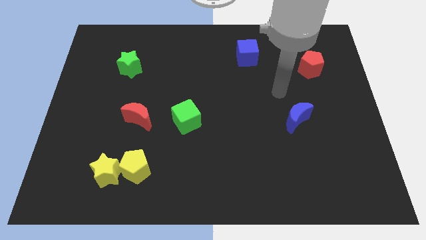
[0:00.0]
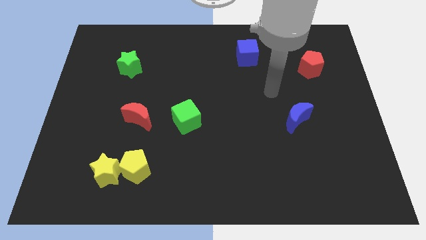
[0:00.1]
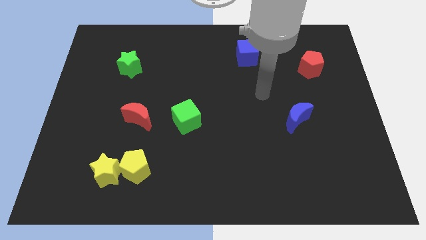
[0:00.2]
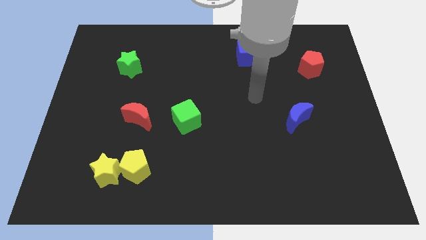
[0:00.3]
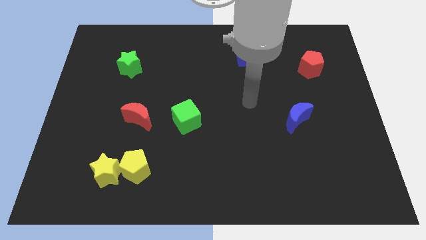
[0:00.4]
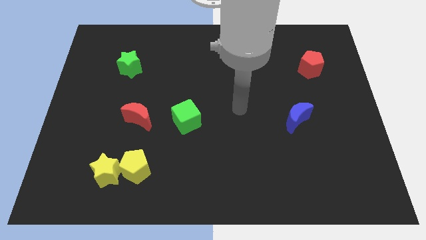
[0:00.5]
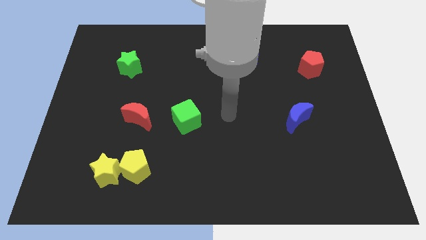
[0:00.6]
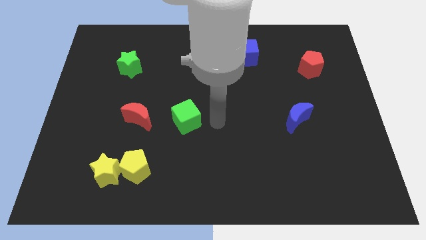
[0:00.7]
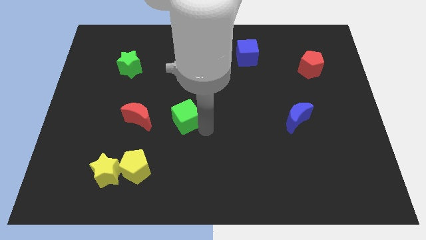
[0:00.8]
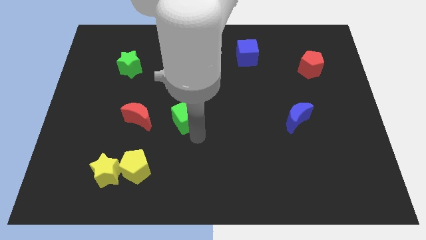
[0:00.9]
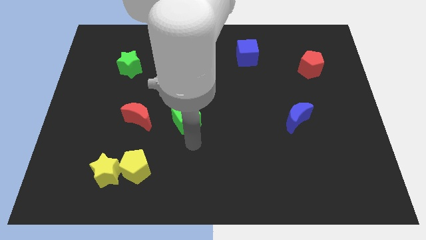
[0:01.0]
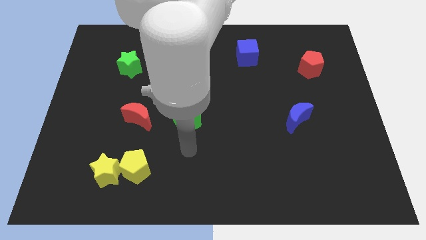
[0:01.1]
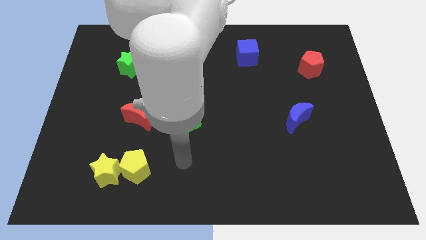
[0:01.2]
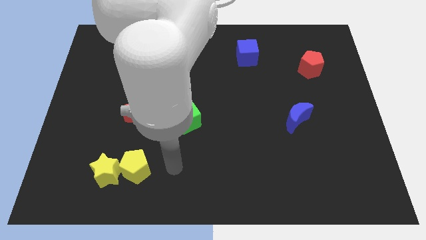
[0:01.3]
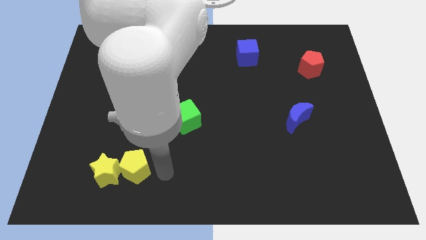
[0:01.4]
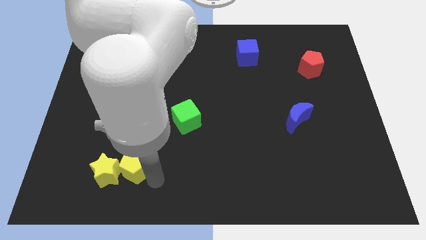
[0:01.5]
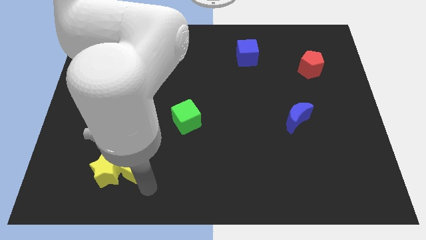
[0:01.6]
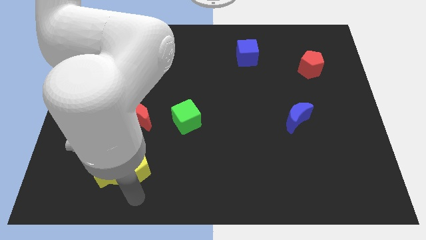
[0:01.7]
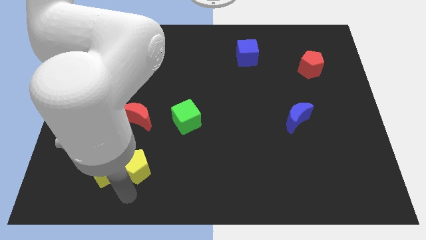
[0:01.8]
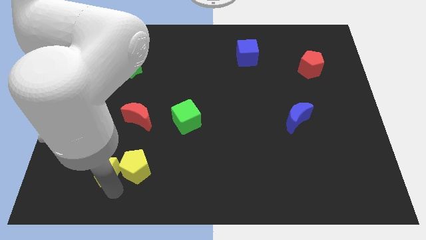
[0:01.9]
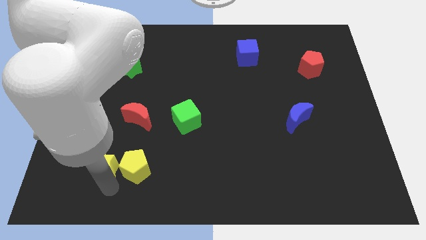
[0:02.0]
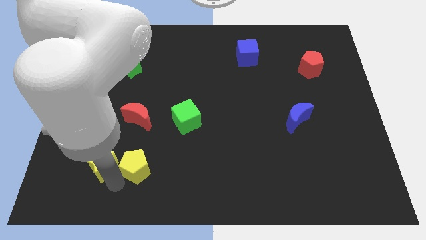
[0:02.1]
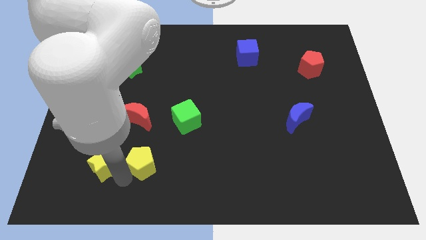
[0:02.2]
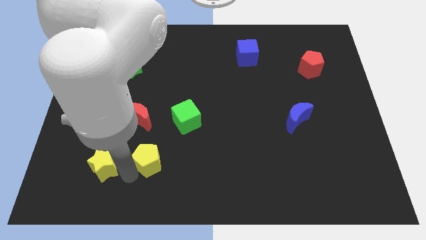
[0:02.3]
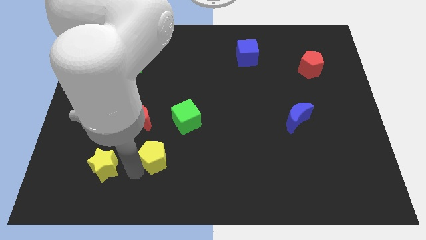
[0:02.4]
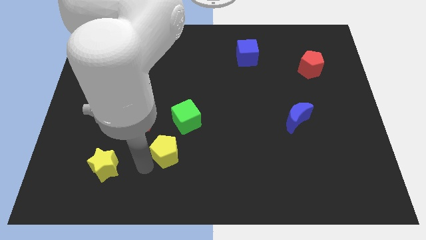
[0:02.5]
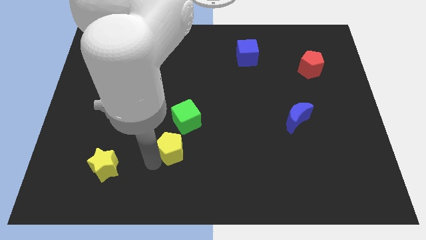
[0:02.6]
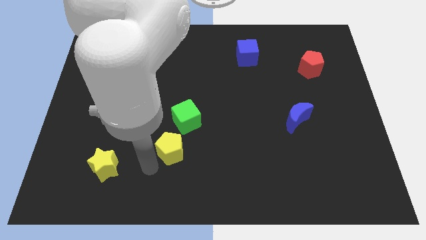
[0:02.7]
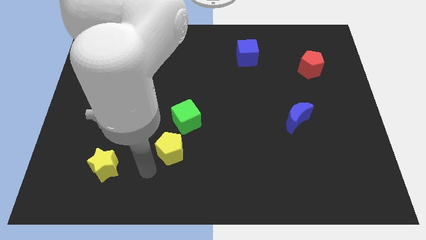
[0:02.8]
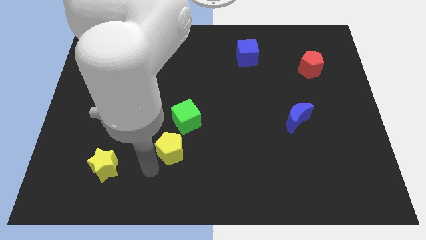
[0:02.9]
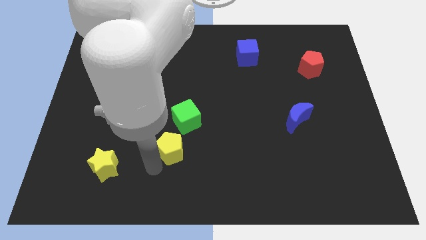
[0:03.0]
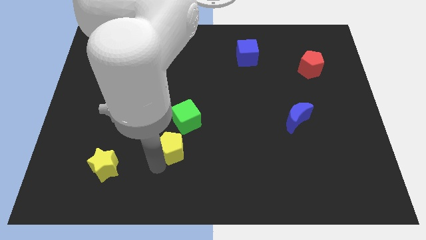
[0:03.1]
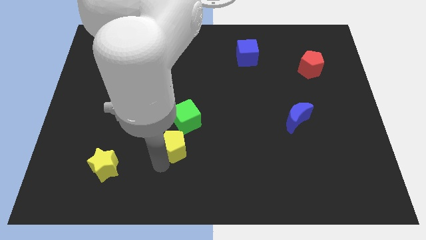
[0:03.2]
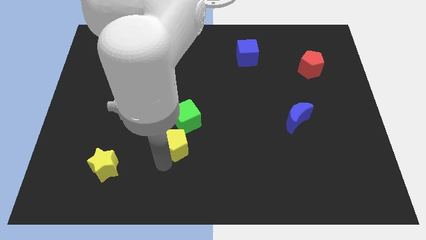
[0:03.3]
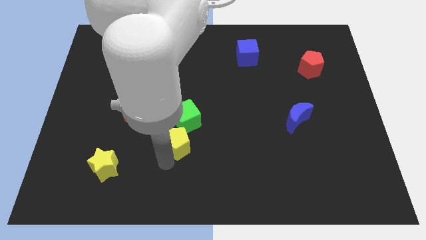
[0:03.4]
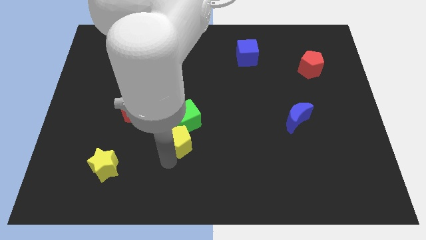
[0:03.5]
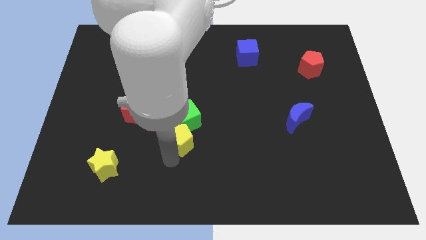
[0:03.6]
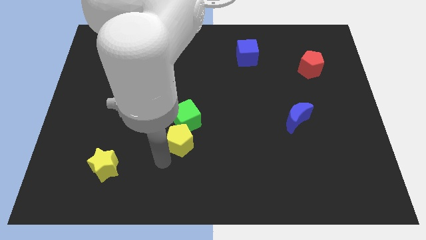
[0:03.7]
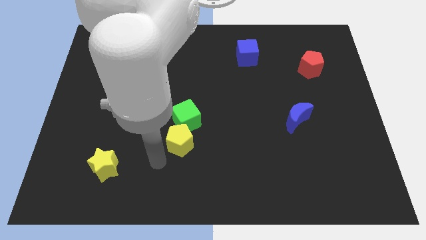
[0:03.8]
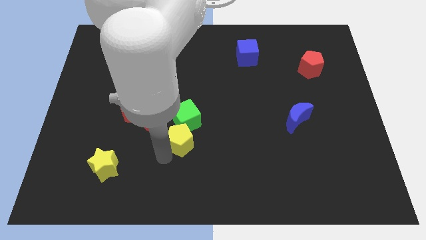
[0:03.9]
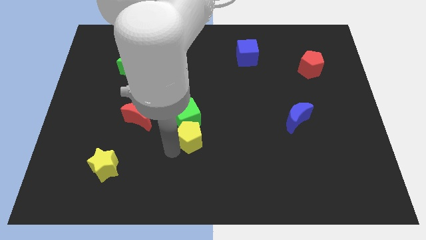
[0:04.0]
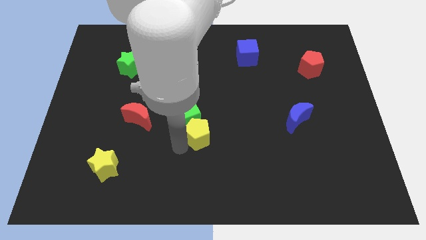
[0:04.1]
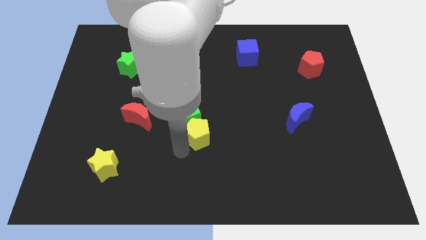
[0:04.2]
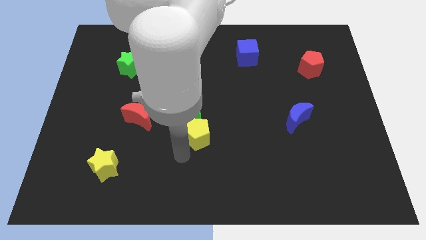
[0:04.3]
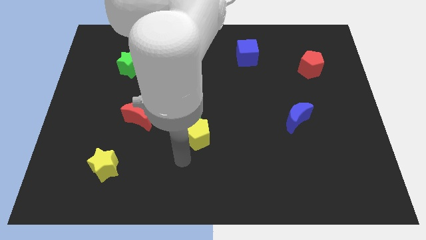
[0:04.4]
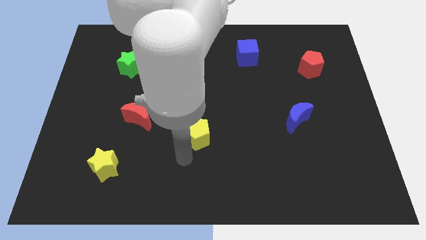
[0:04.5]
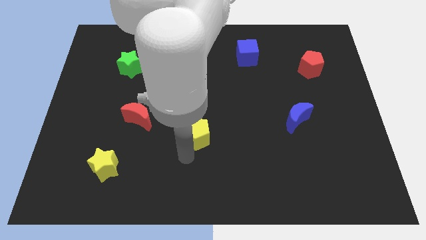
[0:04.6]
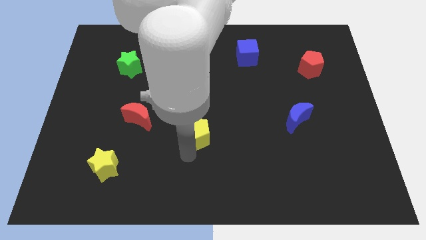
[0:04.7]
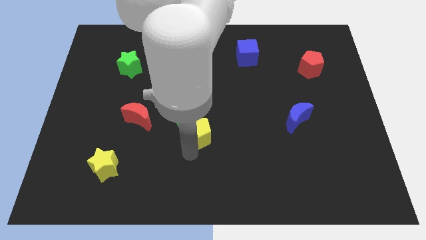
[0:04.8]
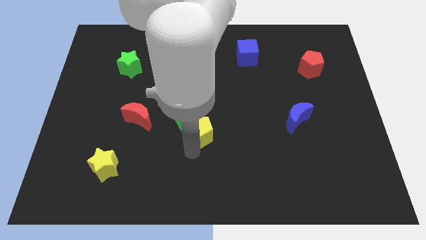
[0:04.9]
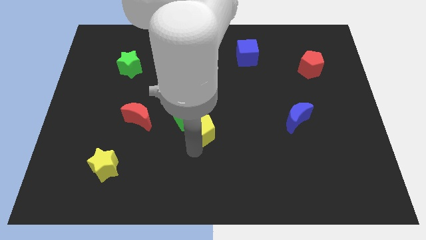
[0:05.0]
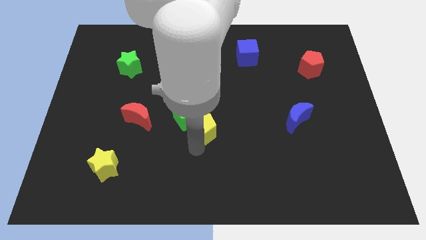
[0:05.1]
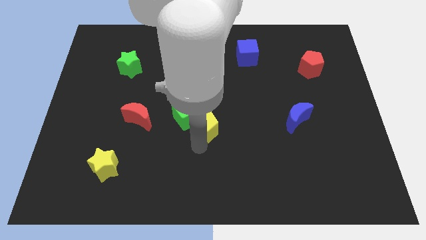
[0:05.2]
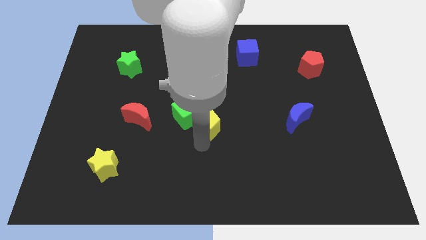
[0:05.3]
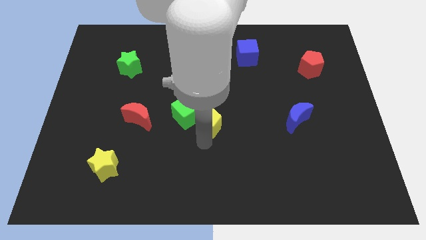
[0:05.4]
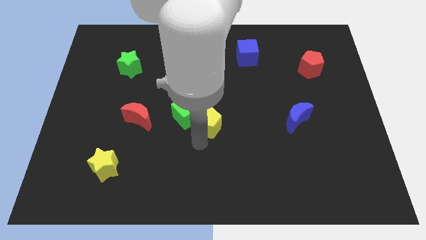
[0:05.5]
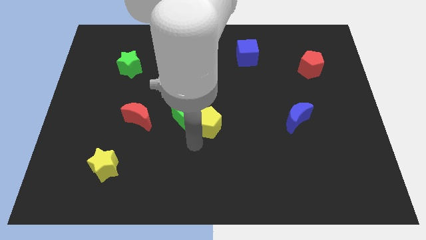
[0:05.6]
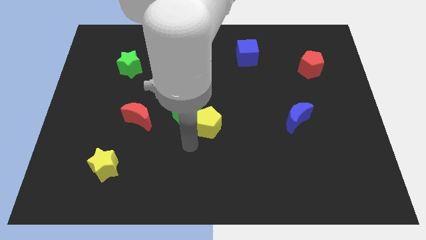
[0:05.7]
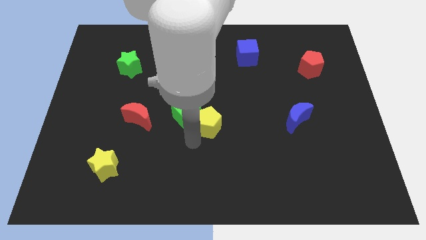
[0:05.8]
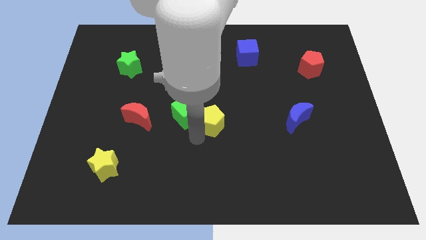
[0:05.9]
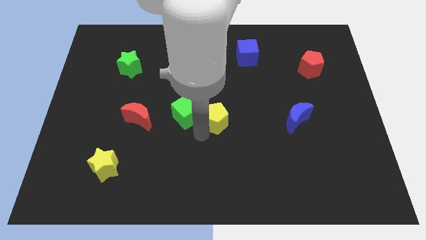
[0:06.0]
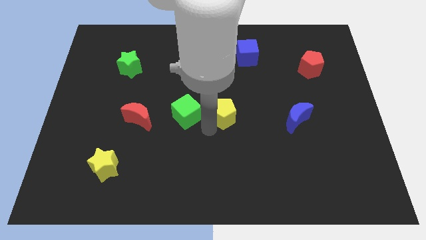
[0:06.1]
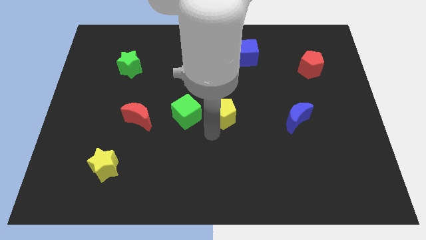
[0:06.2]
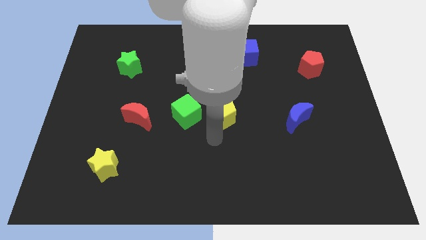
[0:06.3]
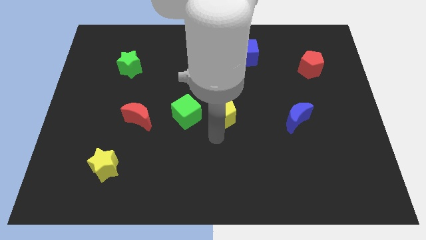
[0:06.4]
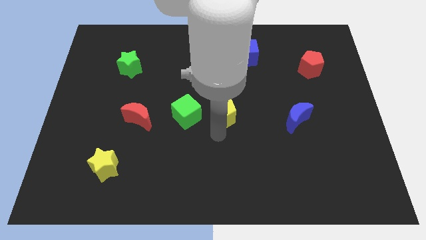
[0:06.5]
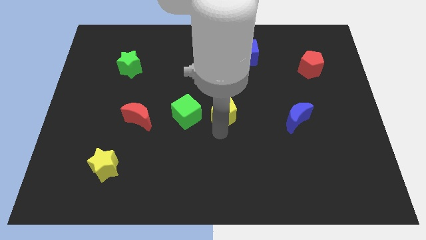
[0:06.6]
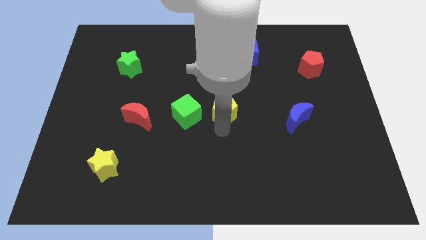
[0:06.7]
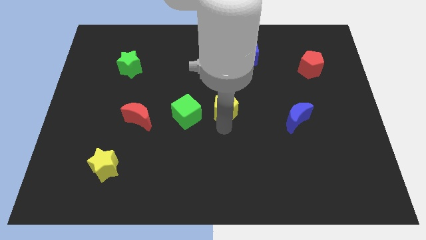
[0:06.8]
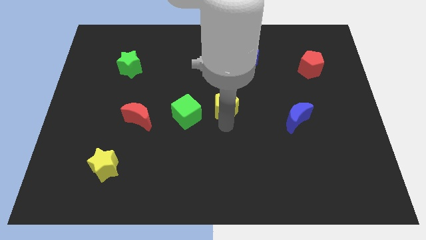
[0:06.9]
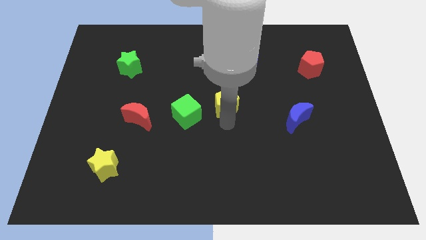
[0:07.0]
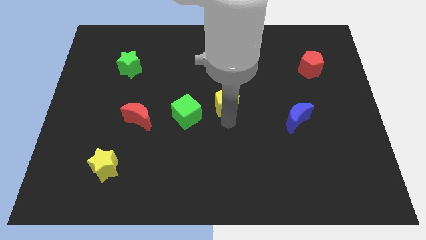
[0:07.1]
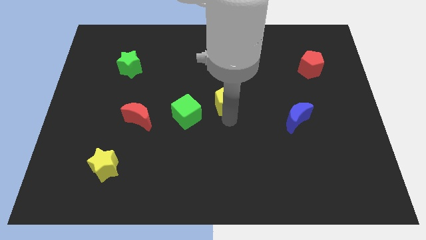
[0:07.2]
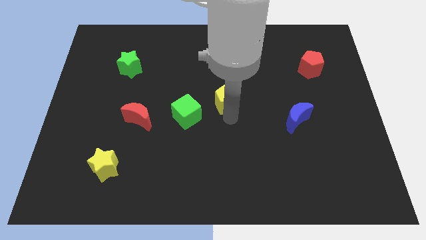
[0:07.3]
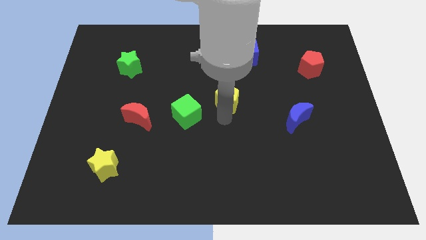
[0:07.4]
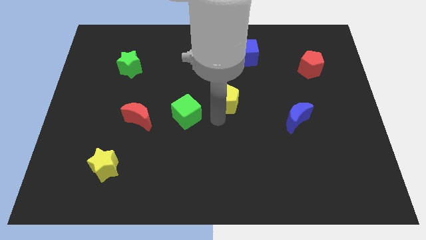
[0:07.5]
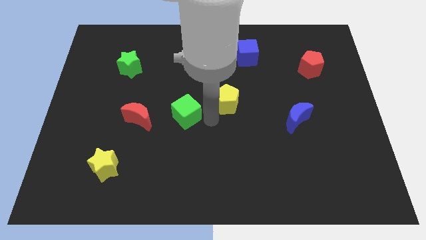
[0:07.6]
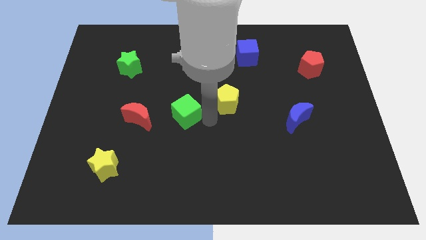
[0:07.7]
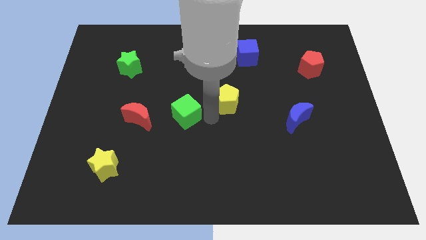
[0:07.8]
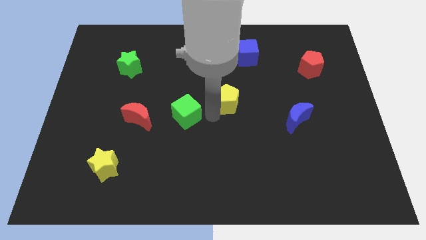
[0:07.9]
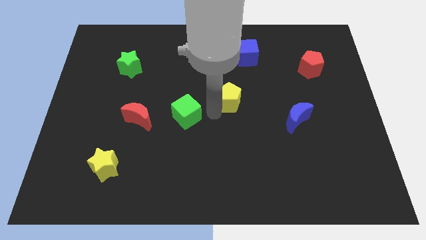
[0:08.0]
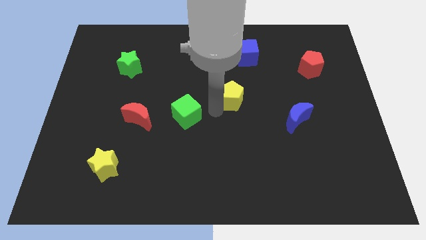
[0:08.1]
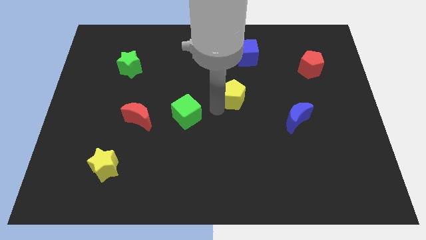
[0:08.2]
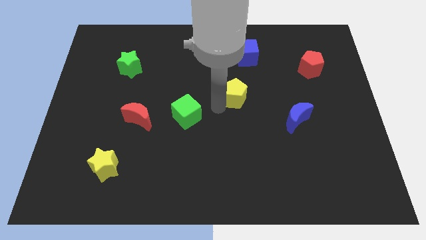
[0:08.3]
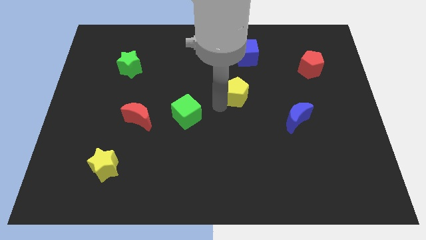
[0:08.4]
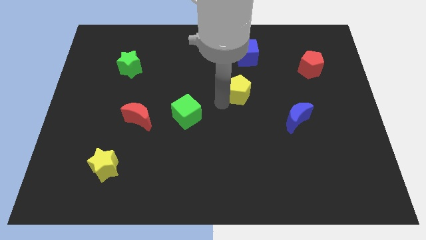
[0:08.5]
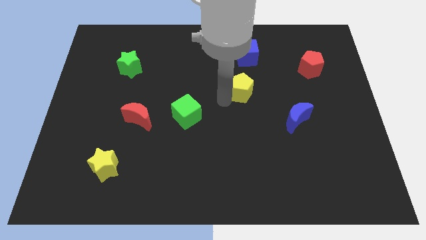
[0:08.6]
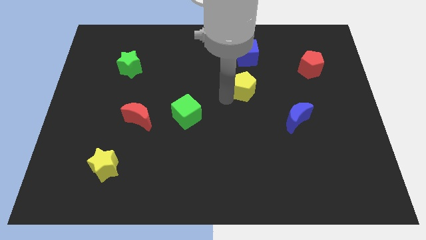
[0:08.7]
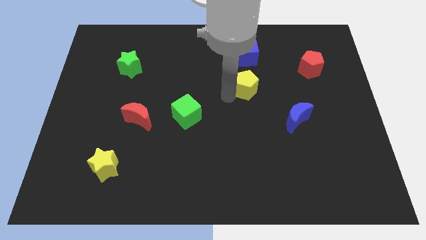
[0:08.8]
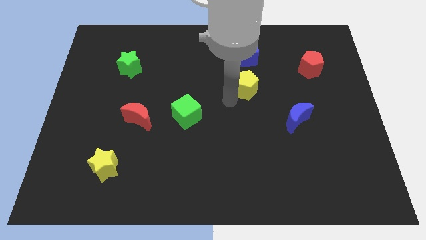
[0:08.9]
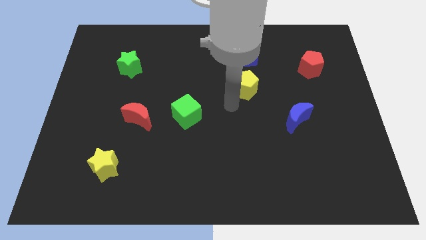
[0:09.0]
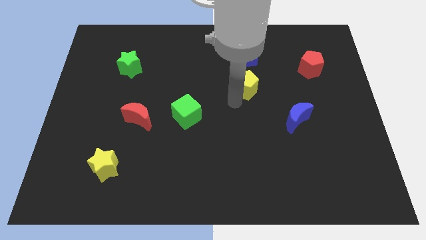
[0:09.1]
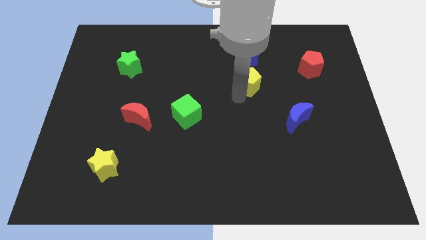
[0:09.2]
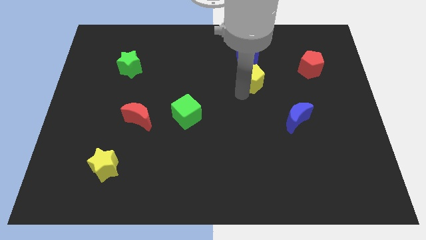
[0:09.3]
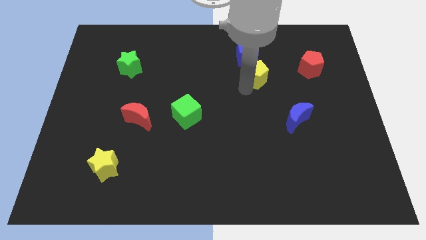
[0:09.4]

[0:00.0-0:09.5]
move the yellow pentagon to the left of the red pentagon
